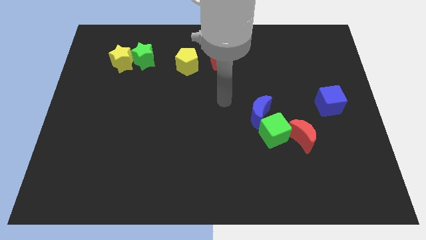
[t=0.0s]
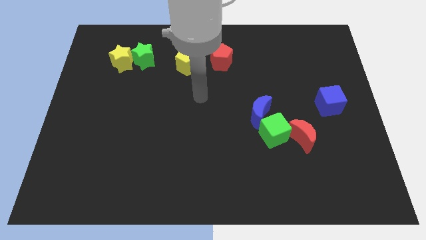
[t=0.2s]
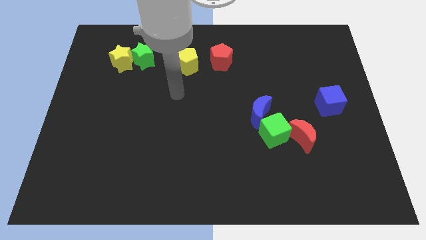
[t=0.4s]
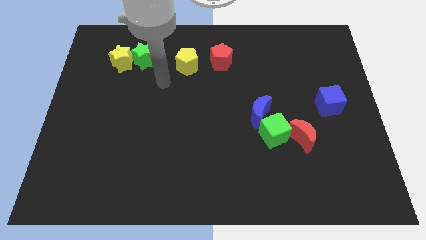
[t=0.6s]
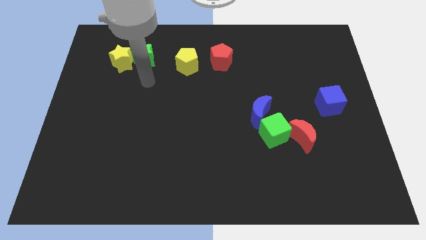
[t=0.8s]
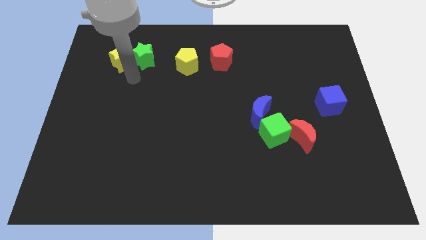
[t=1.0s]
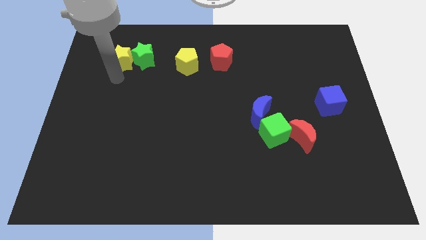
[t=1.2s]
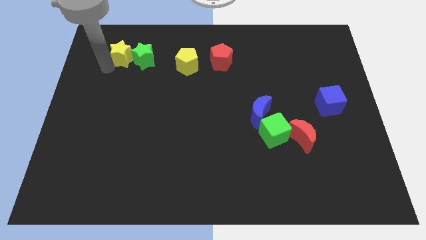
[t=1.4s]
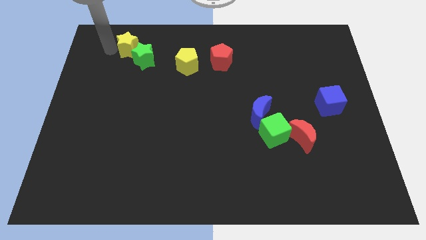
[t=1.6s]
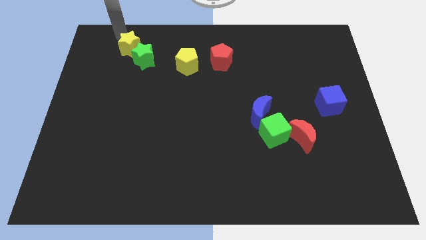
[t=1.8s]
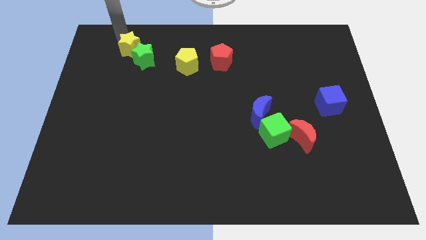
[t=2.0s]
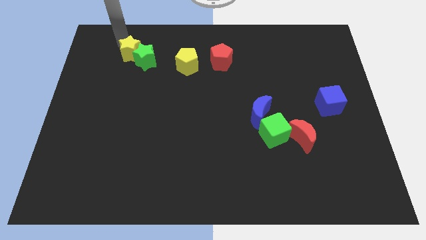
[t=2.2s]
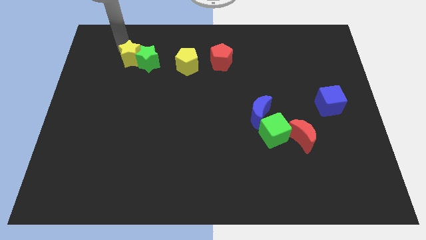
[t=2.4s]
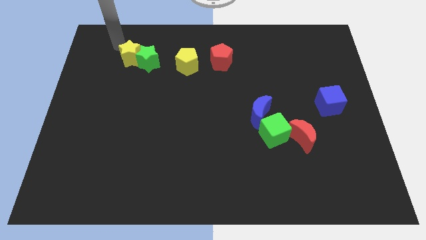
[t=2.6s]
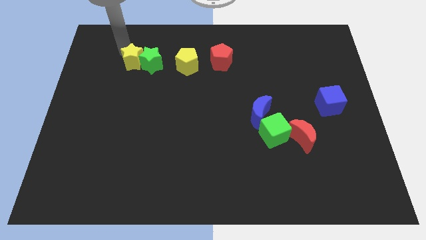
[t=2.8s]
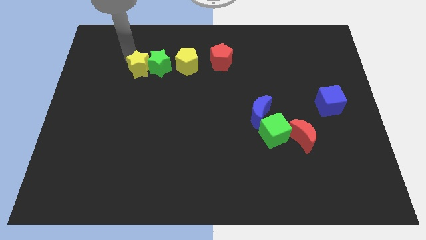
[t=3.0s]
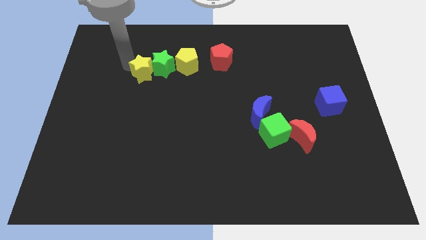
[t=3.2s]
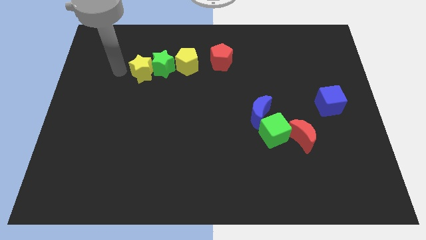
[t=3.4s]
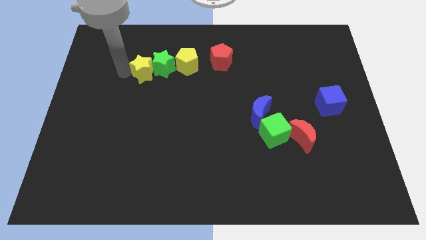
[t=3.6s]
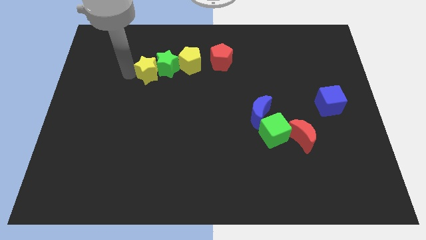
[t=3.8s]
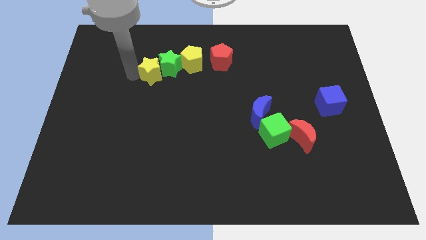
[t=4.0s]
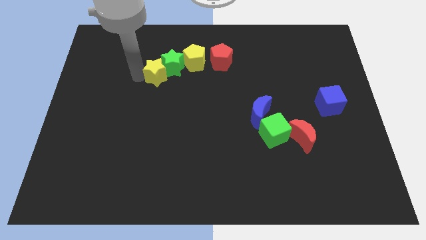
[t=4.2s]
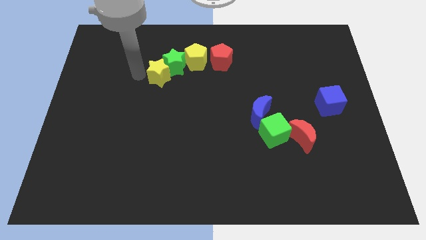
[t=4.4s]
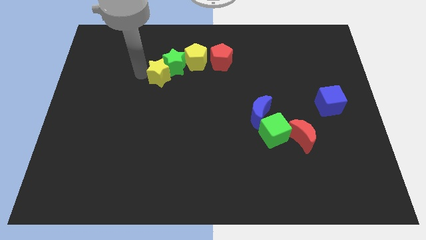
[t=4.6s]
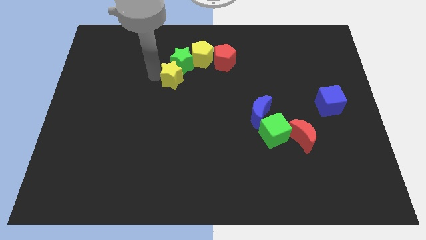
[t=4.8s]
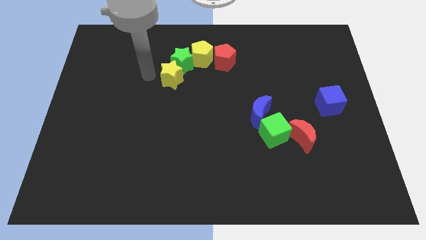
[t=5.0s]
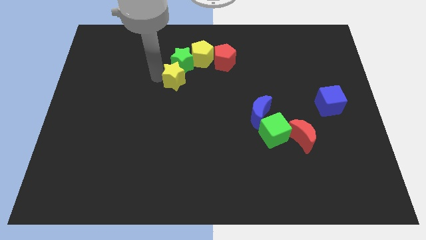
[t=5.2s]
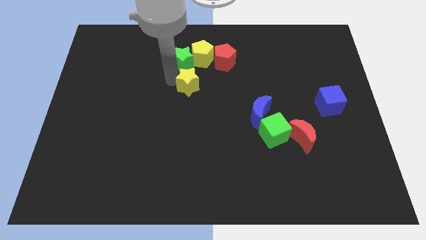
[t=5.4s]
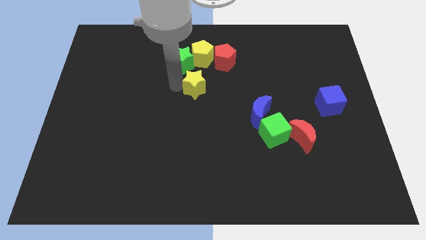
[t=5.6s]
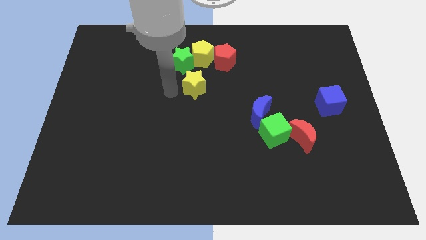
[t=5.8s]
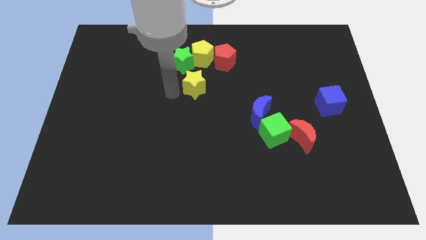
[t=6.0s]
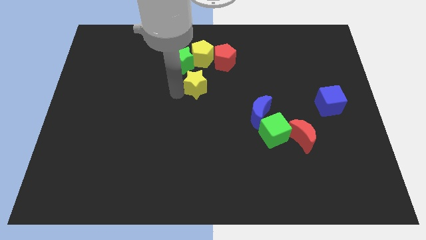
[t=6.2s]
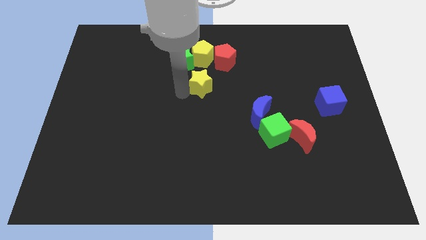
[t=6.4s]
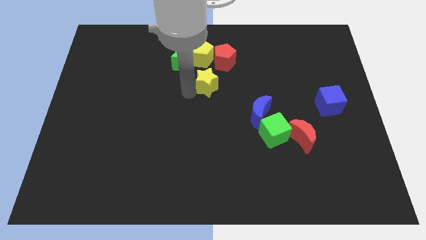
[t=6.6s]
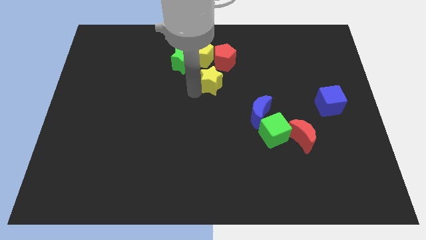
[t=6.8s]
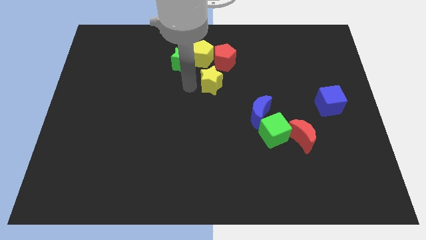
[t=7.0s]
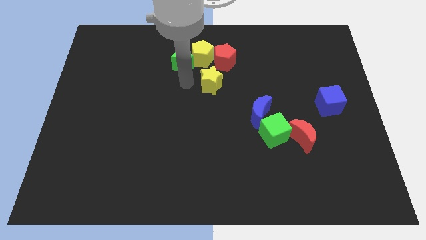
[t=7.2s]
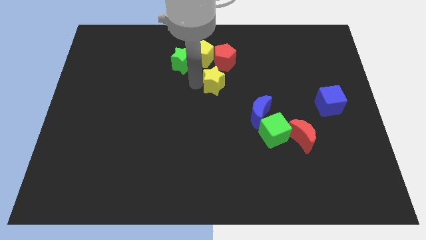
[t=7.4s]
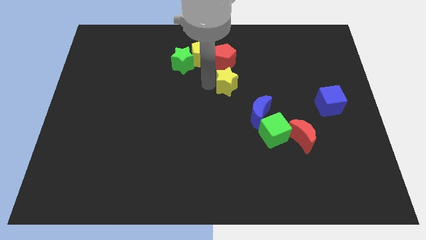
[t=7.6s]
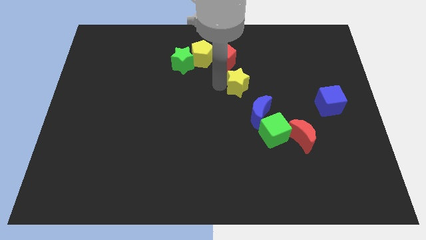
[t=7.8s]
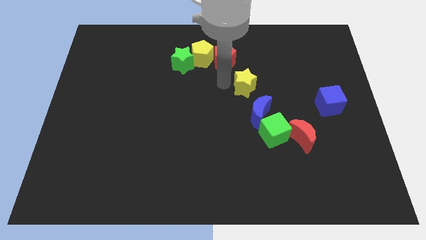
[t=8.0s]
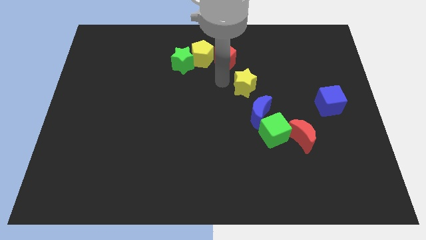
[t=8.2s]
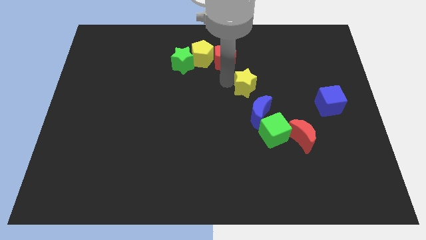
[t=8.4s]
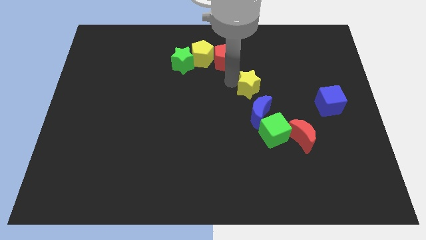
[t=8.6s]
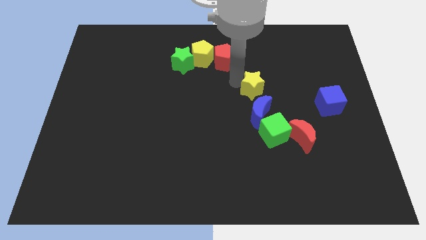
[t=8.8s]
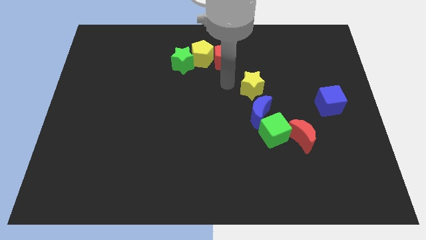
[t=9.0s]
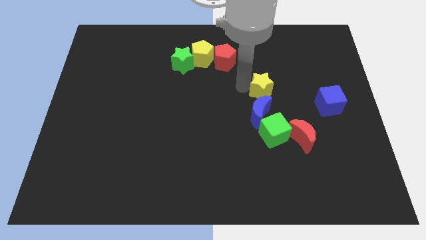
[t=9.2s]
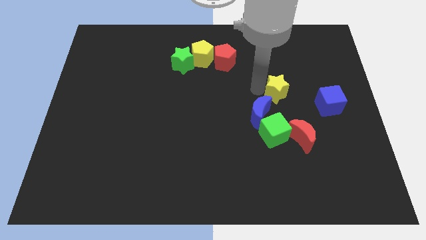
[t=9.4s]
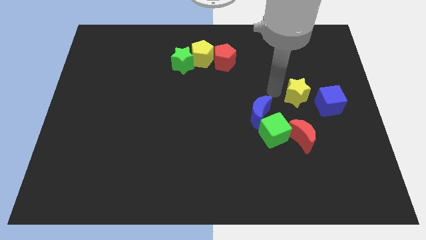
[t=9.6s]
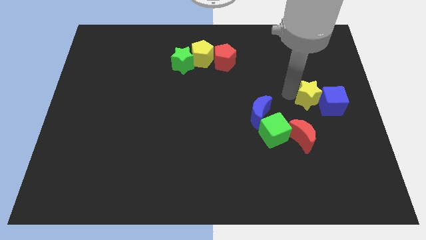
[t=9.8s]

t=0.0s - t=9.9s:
push the yellow star to the blue cube

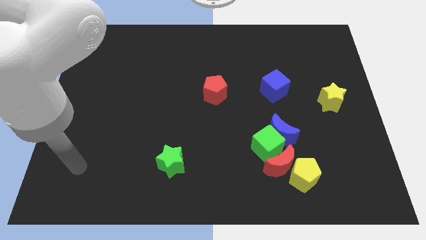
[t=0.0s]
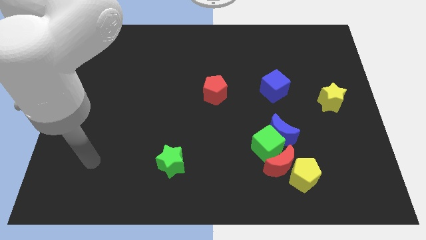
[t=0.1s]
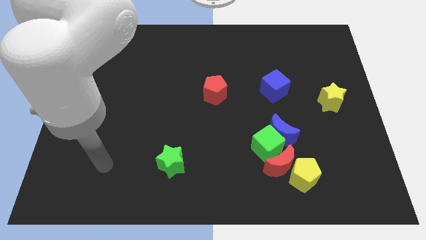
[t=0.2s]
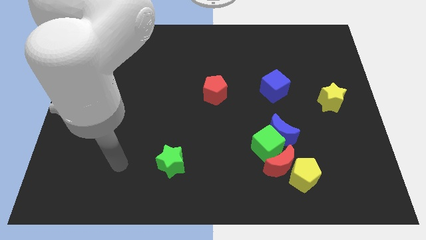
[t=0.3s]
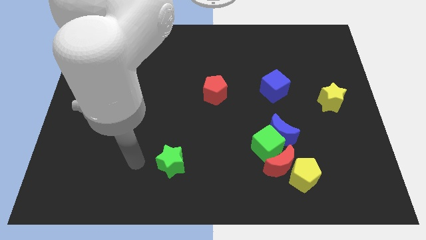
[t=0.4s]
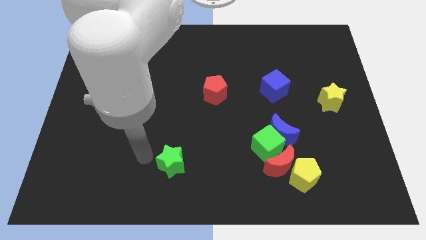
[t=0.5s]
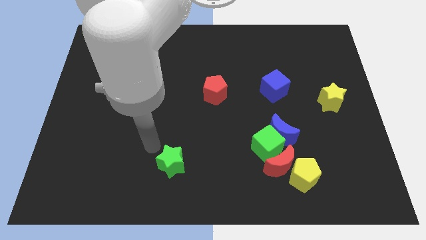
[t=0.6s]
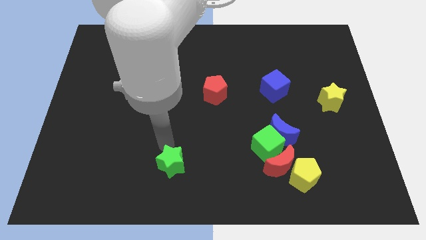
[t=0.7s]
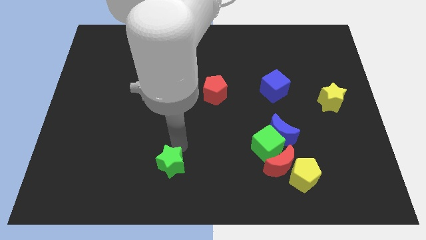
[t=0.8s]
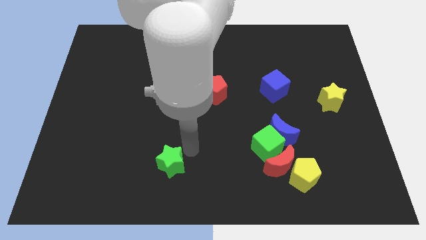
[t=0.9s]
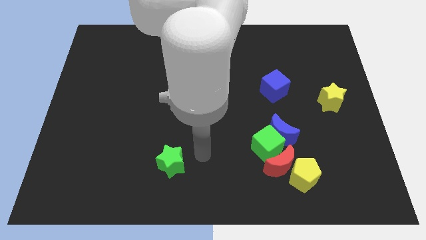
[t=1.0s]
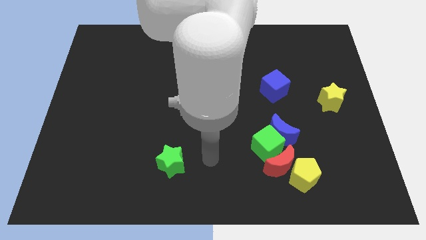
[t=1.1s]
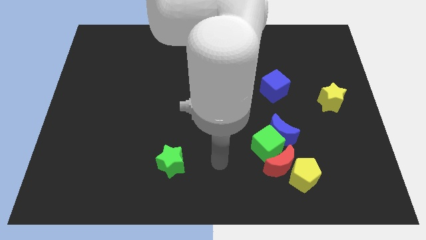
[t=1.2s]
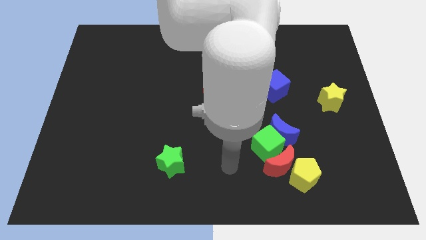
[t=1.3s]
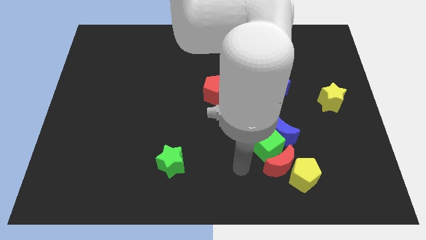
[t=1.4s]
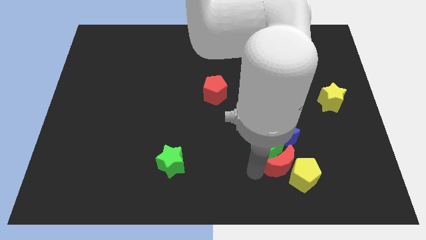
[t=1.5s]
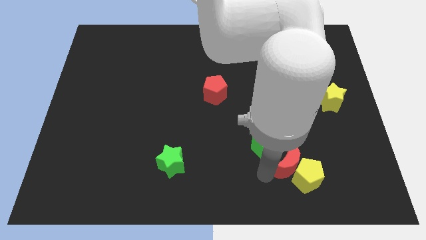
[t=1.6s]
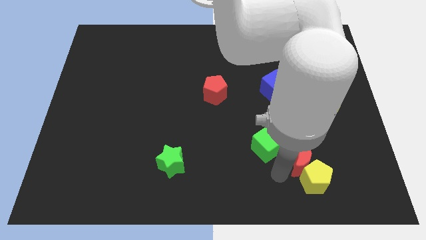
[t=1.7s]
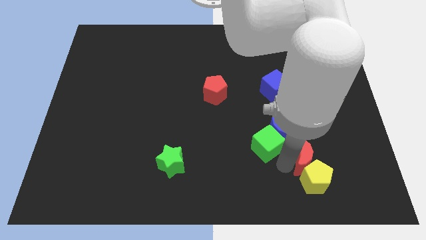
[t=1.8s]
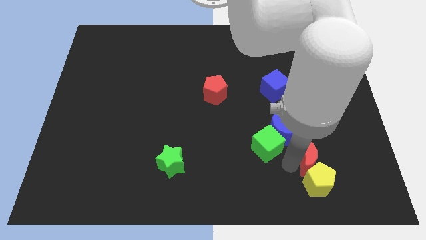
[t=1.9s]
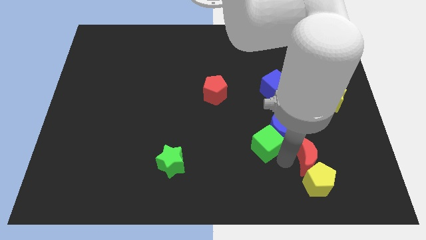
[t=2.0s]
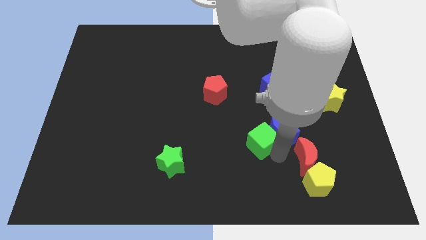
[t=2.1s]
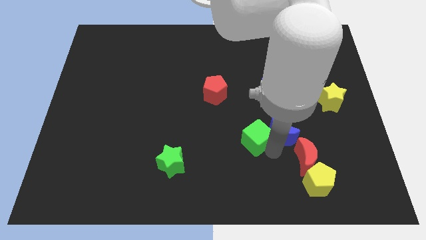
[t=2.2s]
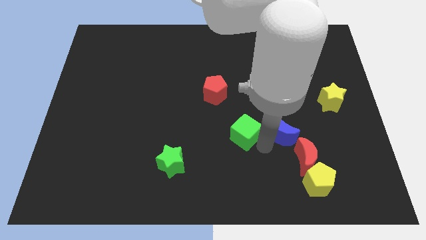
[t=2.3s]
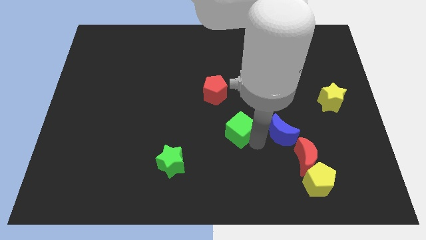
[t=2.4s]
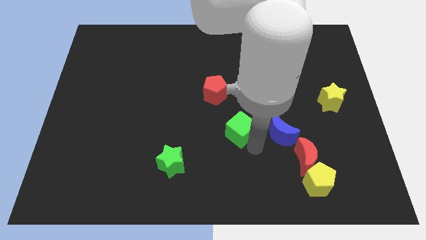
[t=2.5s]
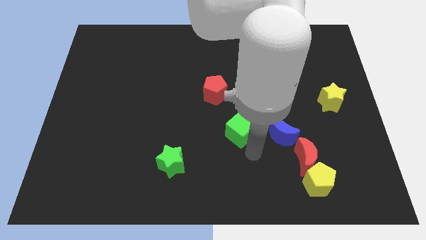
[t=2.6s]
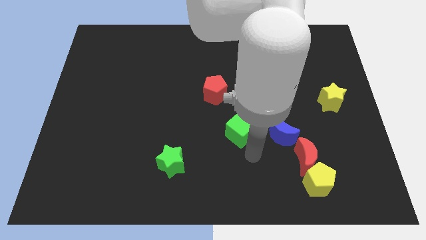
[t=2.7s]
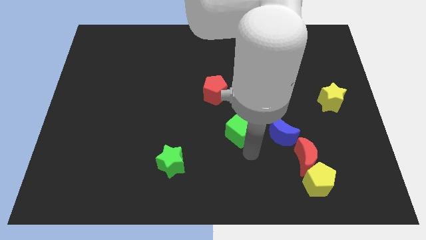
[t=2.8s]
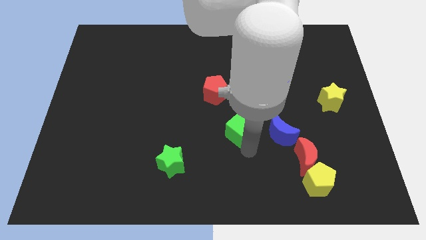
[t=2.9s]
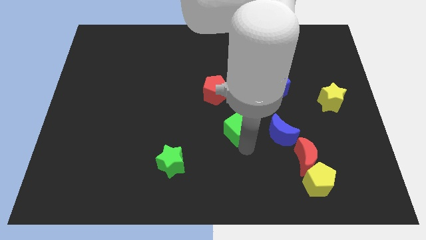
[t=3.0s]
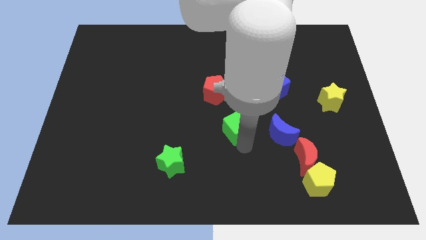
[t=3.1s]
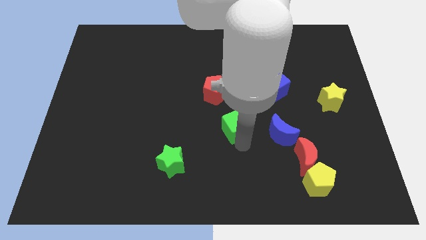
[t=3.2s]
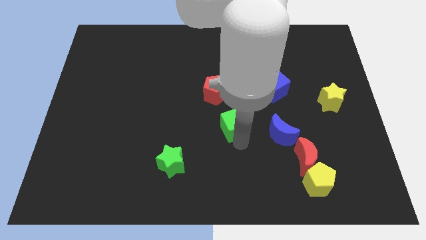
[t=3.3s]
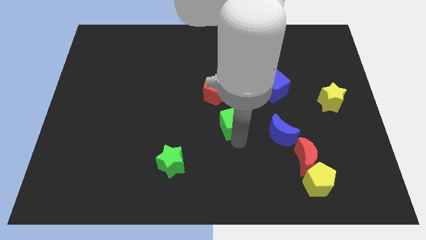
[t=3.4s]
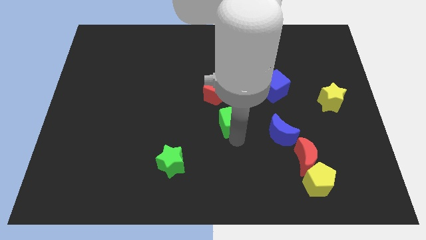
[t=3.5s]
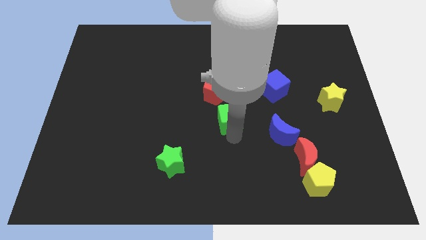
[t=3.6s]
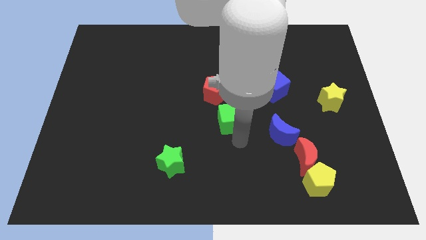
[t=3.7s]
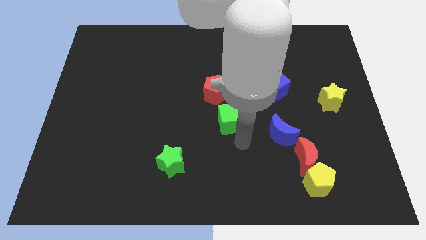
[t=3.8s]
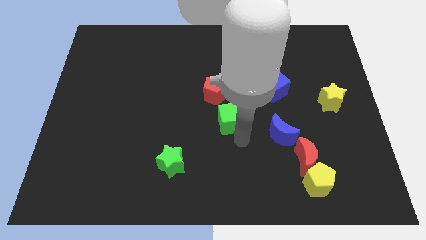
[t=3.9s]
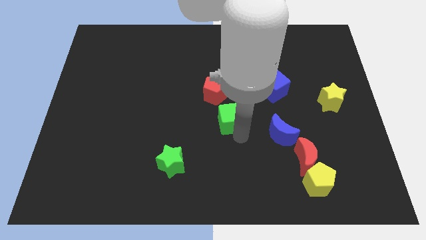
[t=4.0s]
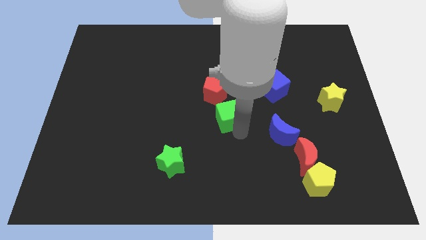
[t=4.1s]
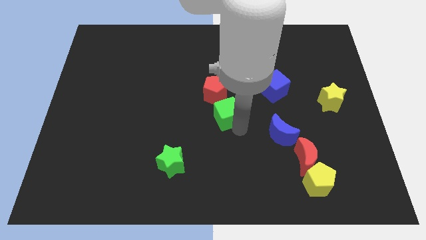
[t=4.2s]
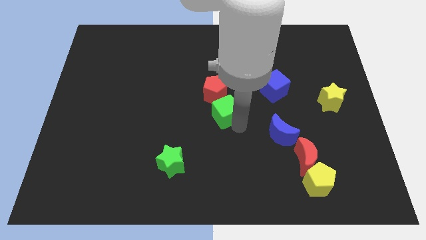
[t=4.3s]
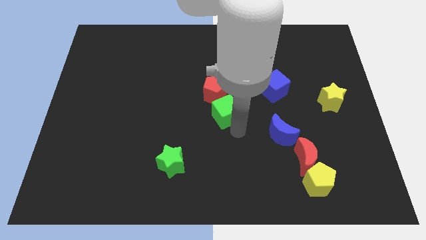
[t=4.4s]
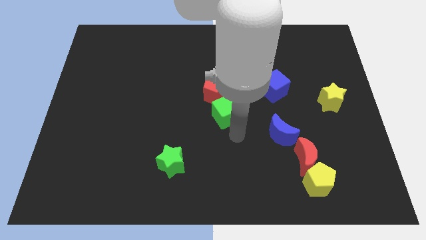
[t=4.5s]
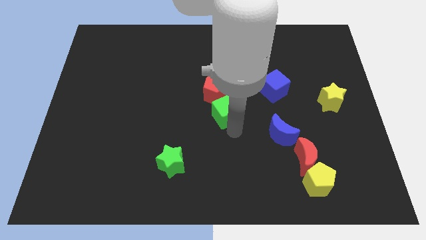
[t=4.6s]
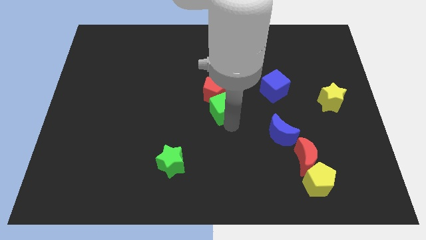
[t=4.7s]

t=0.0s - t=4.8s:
move the green cube close to the red pentagon
